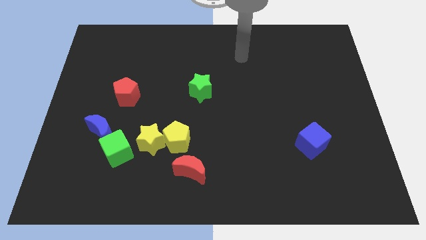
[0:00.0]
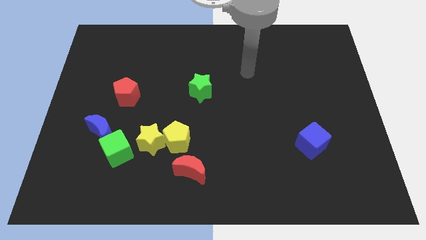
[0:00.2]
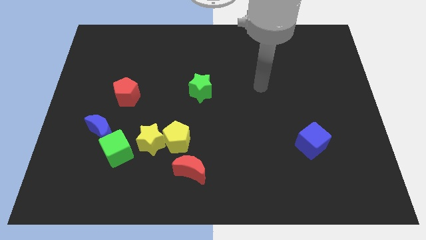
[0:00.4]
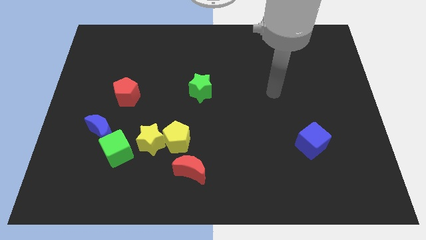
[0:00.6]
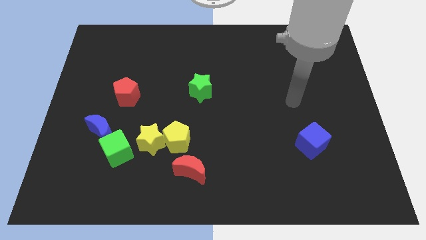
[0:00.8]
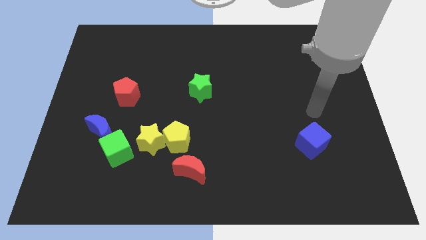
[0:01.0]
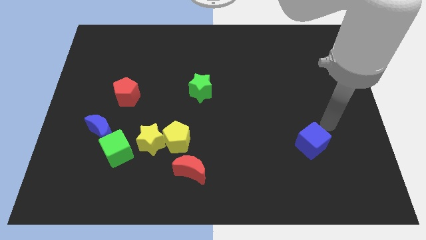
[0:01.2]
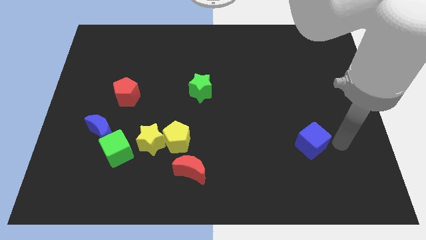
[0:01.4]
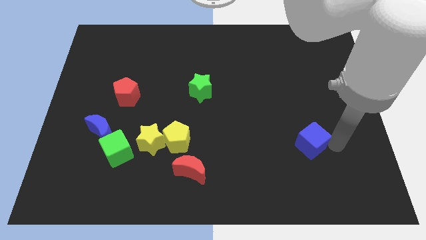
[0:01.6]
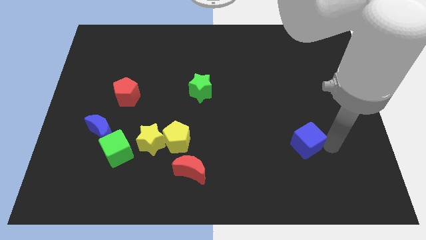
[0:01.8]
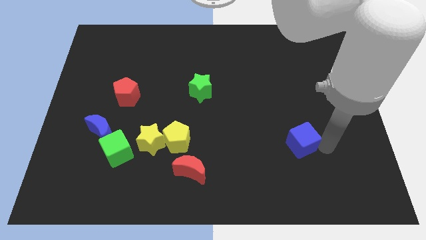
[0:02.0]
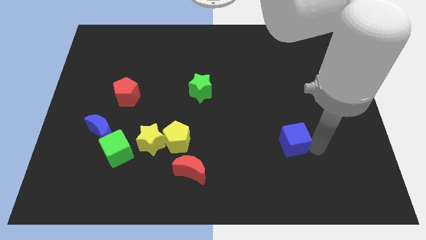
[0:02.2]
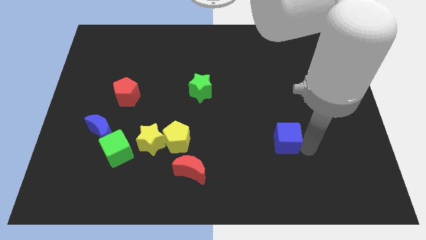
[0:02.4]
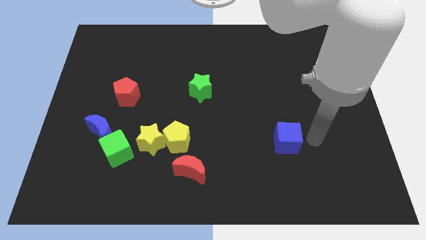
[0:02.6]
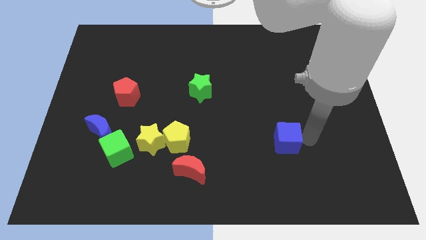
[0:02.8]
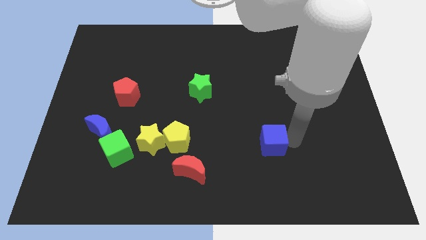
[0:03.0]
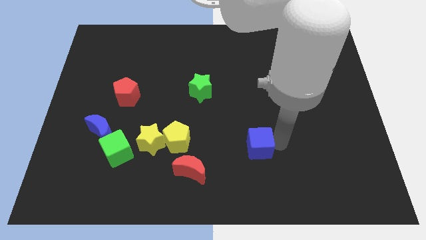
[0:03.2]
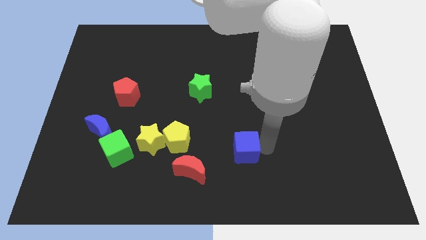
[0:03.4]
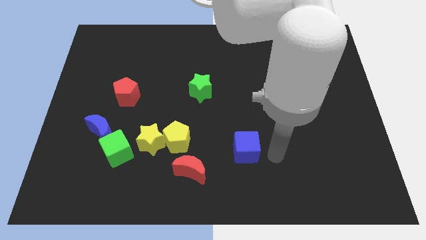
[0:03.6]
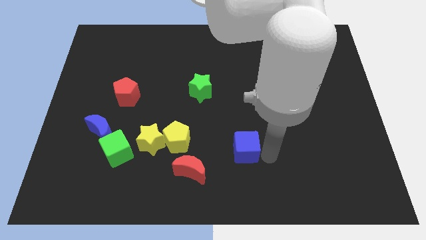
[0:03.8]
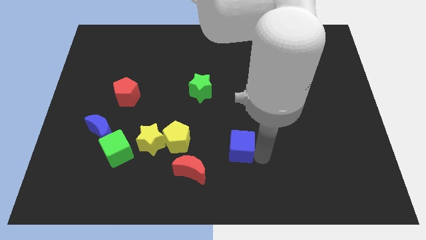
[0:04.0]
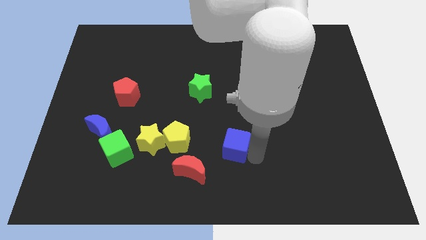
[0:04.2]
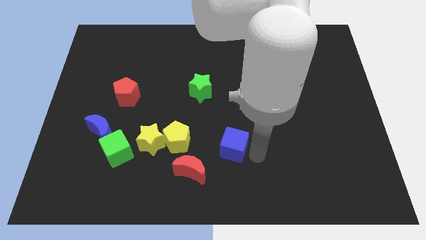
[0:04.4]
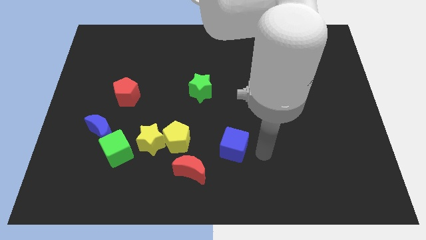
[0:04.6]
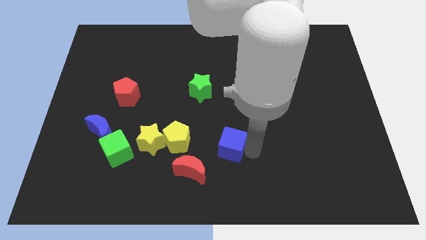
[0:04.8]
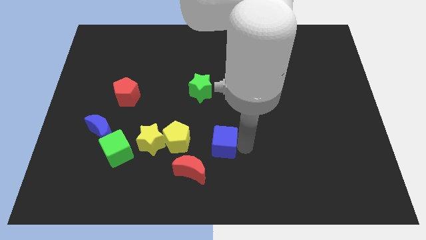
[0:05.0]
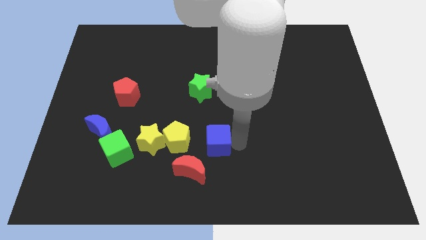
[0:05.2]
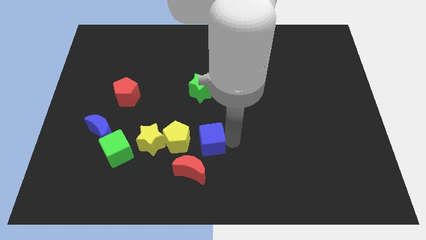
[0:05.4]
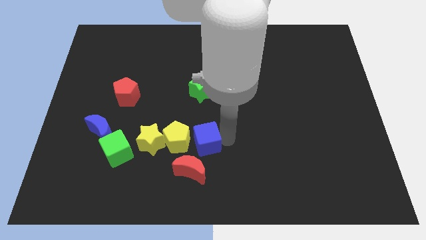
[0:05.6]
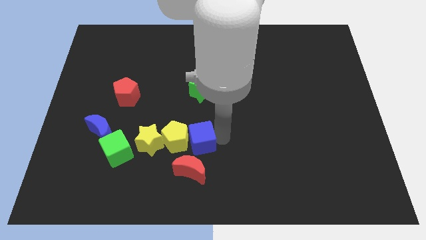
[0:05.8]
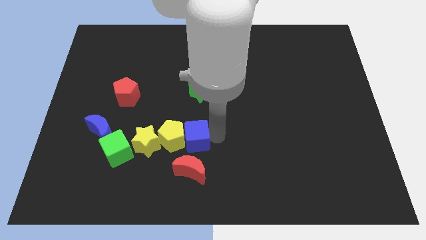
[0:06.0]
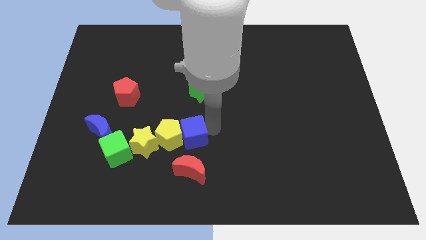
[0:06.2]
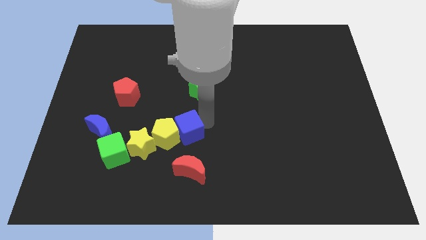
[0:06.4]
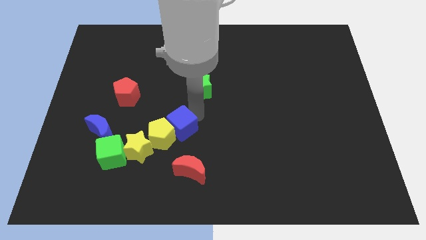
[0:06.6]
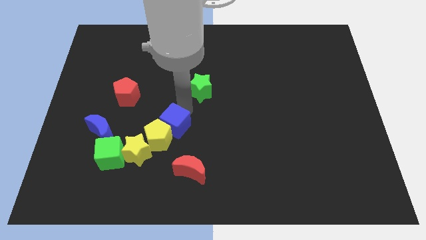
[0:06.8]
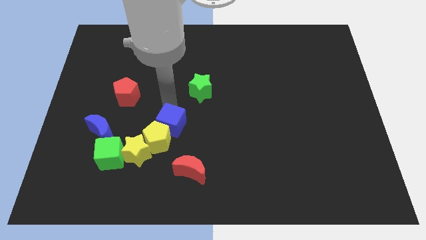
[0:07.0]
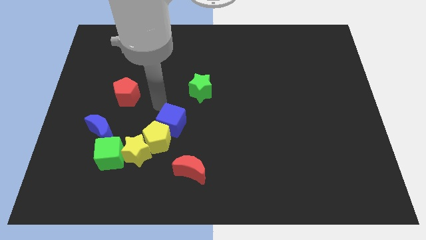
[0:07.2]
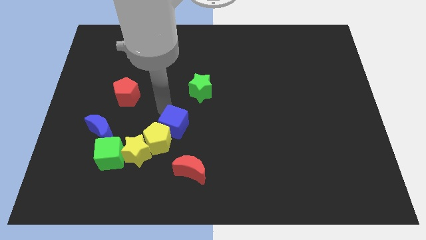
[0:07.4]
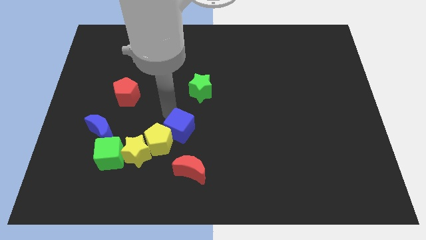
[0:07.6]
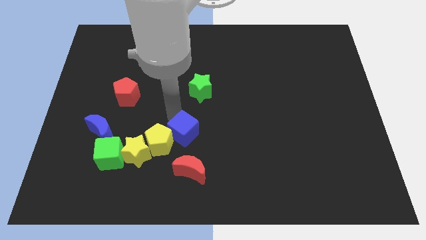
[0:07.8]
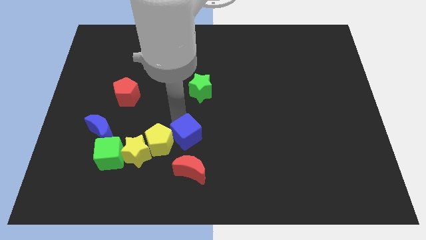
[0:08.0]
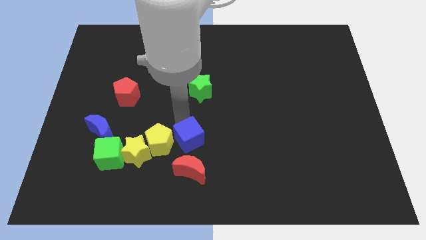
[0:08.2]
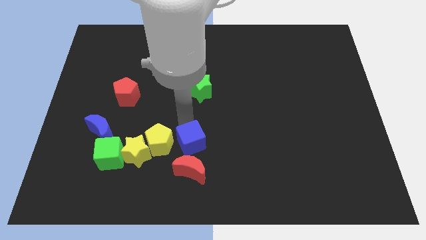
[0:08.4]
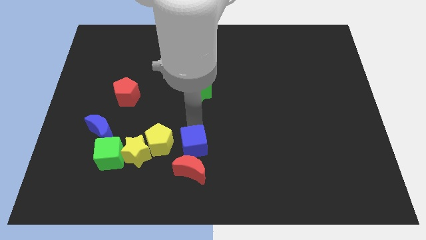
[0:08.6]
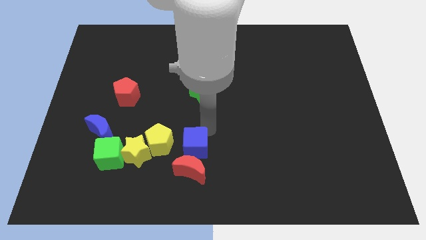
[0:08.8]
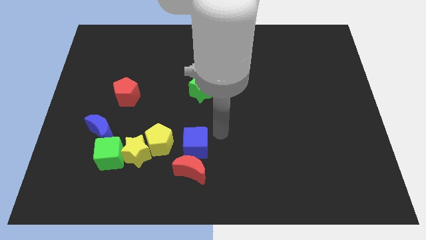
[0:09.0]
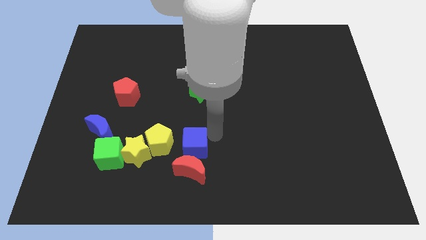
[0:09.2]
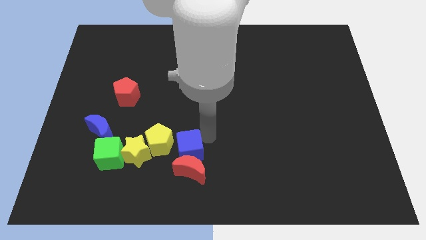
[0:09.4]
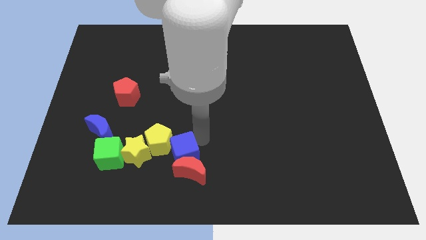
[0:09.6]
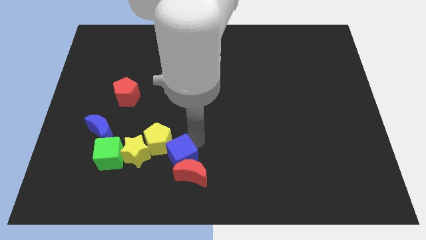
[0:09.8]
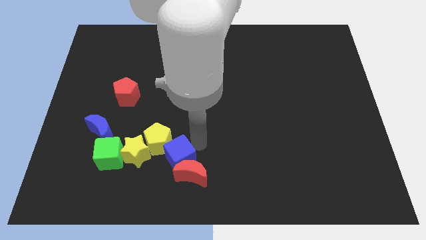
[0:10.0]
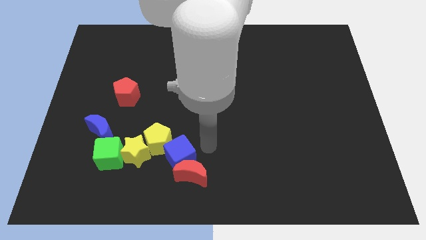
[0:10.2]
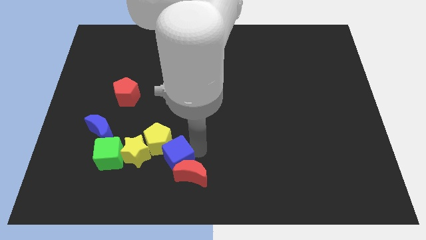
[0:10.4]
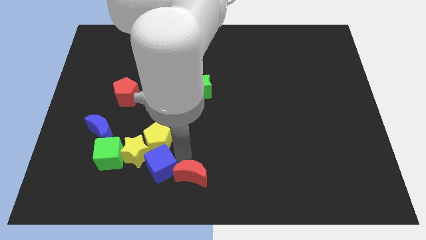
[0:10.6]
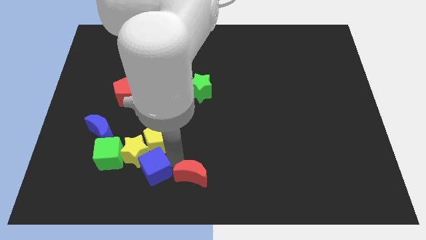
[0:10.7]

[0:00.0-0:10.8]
put the blue cube diagonally down and to the right of the green cube

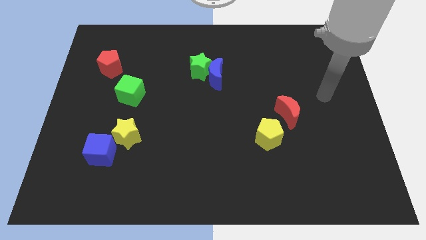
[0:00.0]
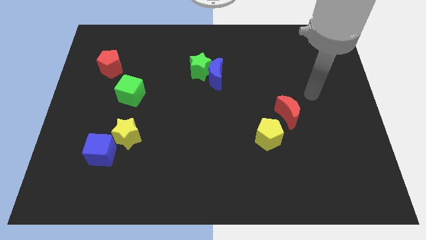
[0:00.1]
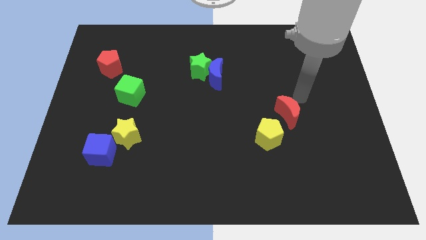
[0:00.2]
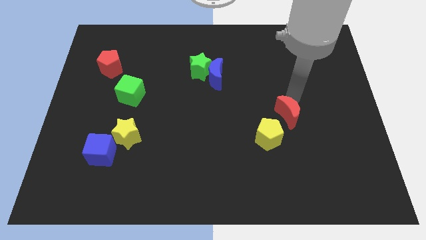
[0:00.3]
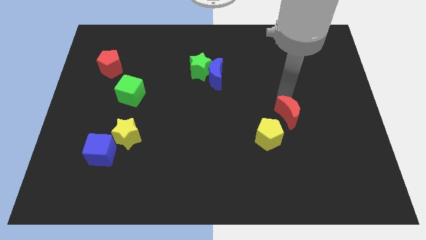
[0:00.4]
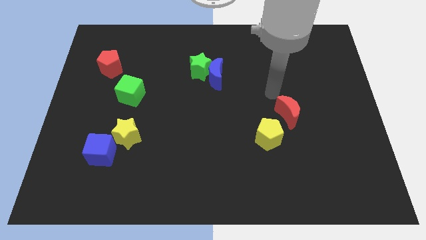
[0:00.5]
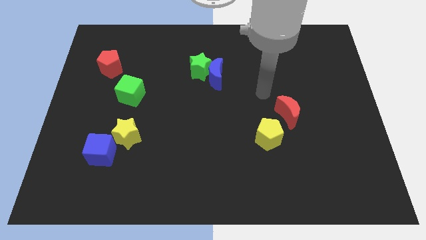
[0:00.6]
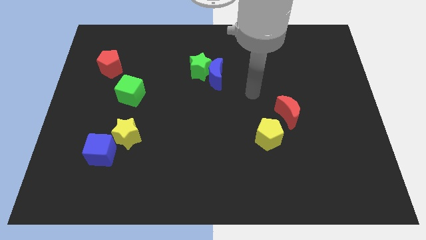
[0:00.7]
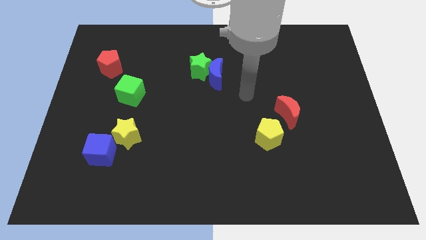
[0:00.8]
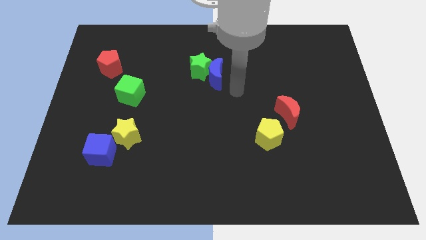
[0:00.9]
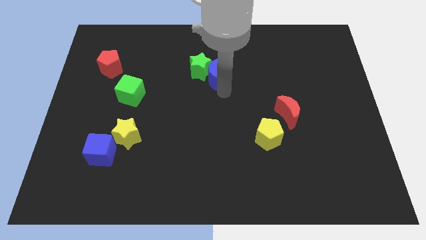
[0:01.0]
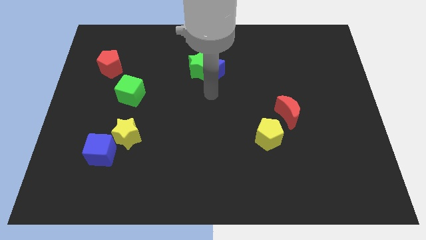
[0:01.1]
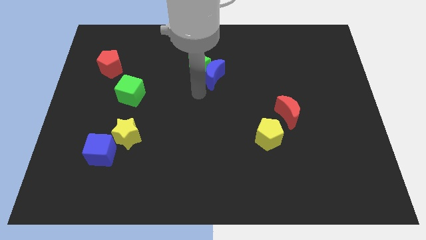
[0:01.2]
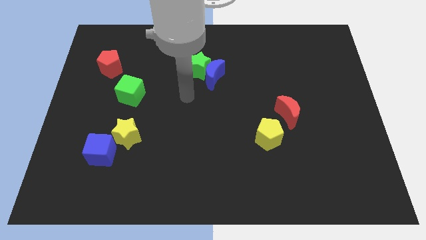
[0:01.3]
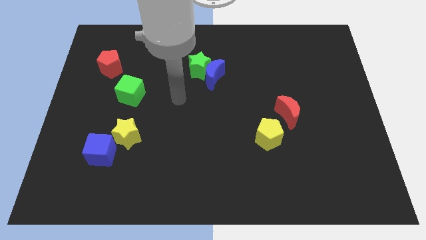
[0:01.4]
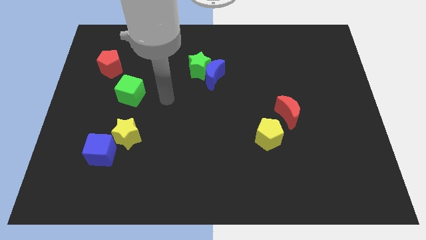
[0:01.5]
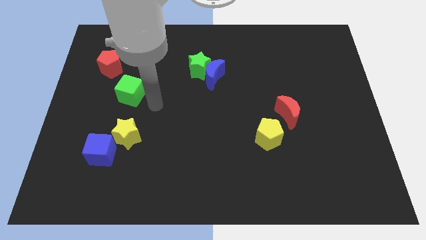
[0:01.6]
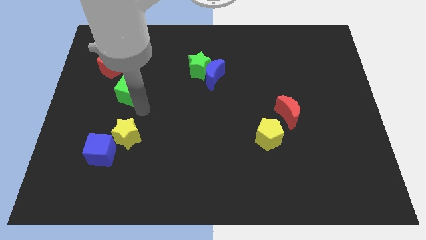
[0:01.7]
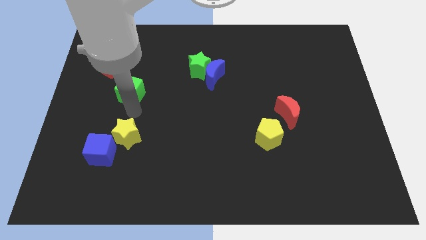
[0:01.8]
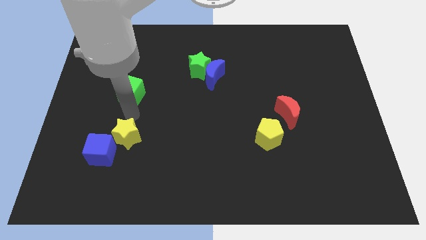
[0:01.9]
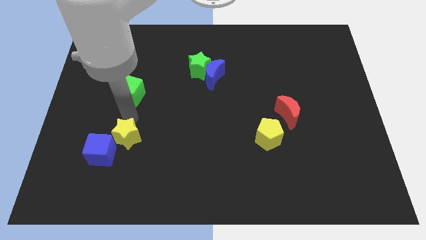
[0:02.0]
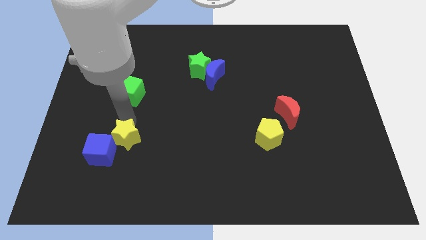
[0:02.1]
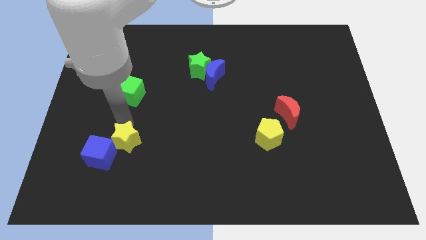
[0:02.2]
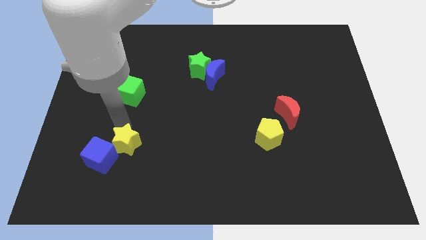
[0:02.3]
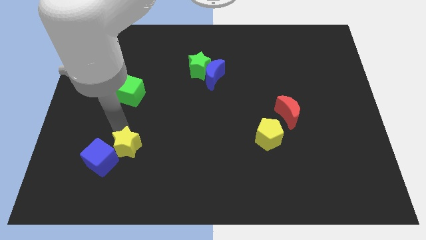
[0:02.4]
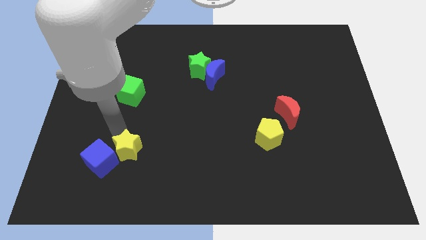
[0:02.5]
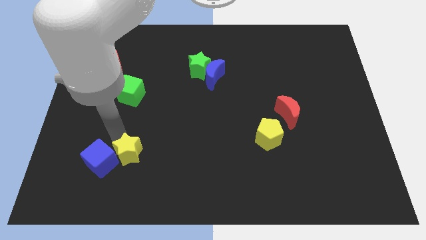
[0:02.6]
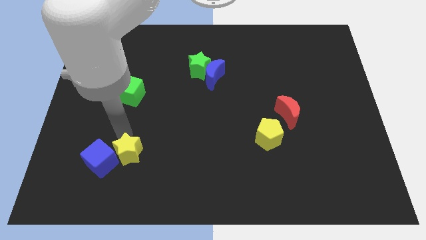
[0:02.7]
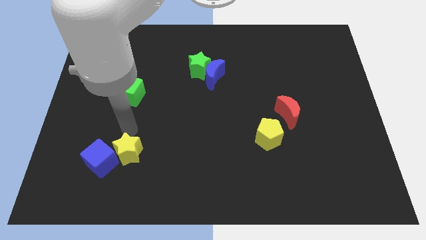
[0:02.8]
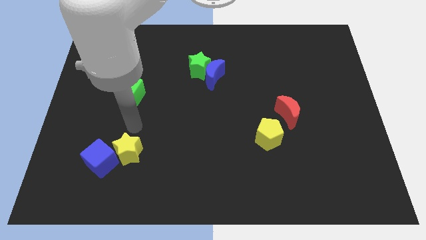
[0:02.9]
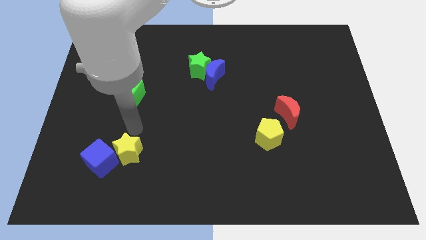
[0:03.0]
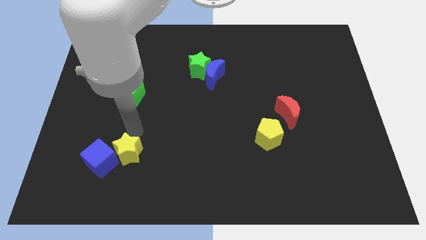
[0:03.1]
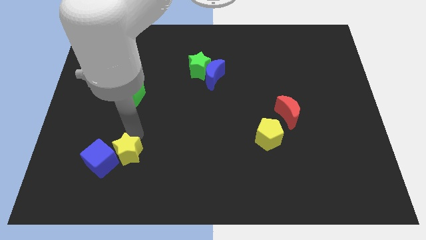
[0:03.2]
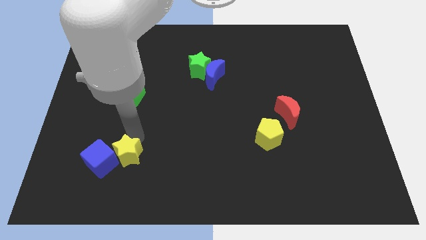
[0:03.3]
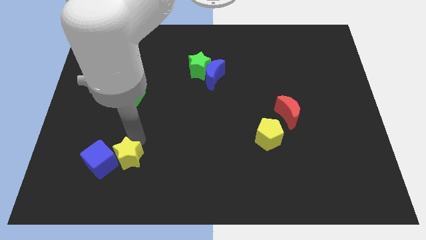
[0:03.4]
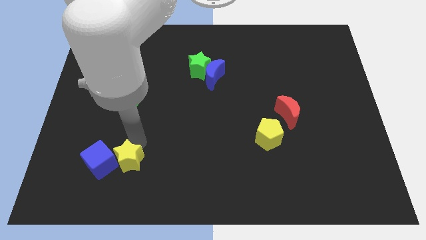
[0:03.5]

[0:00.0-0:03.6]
push the yellow star diagonally down and to the right of the blue cube
